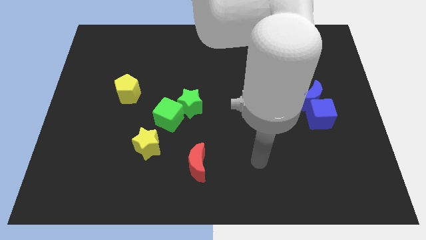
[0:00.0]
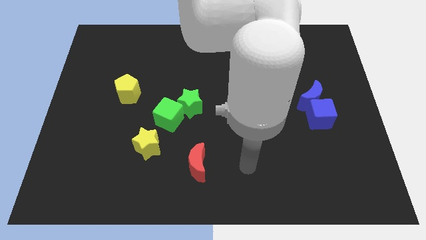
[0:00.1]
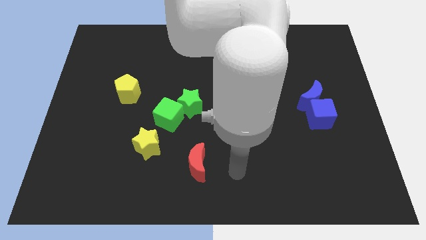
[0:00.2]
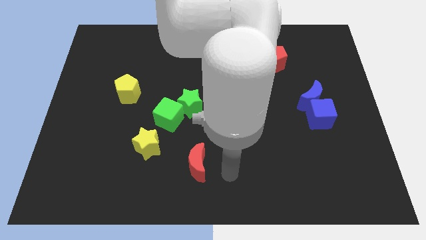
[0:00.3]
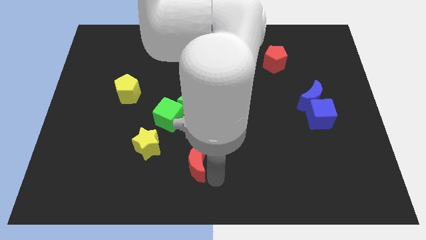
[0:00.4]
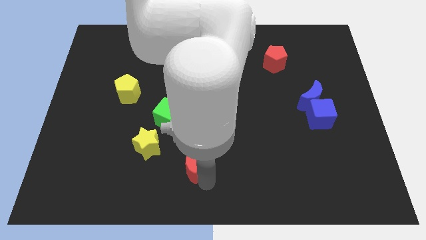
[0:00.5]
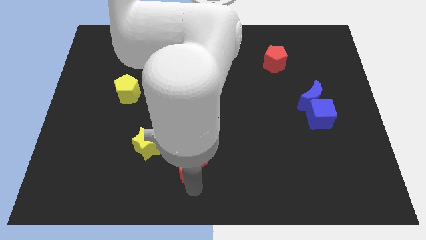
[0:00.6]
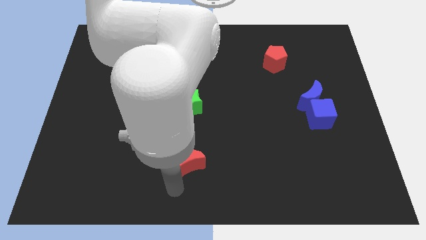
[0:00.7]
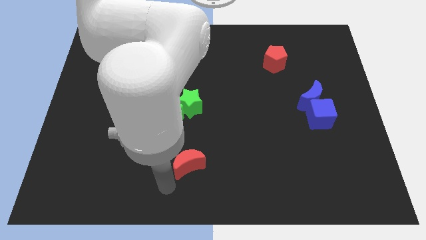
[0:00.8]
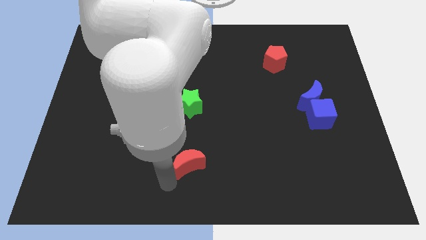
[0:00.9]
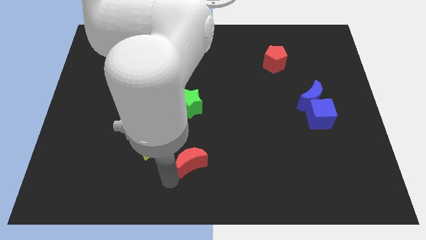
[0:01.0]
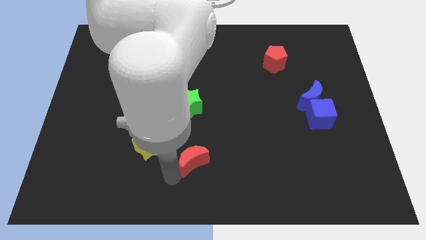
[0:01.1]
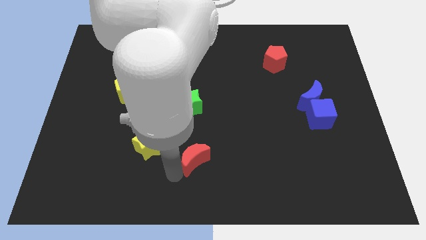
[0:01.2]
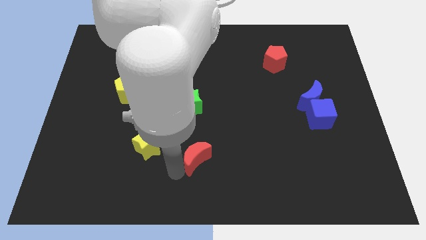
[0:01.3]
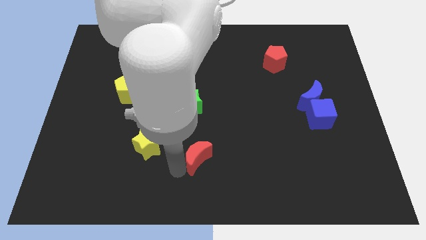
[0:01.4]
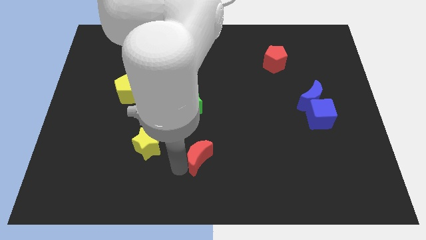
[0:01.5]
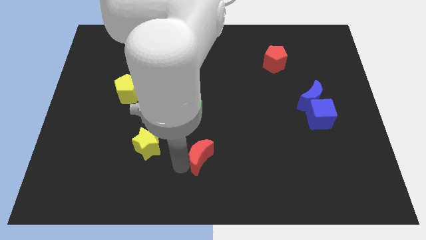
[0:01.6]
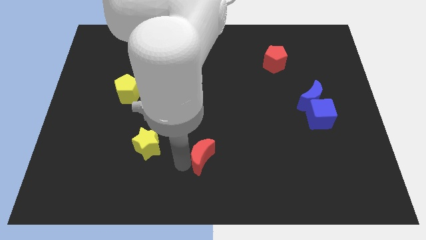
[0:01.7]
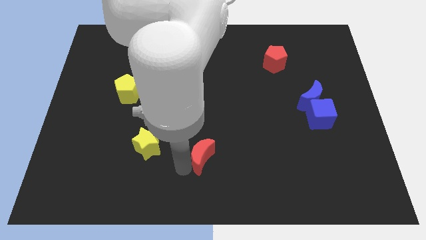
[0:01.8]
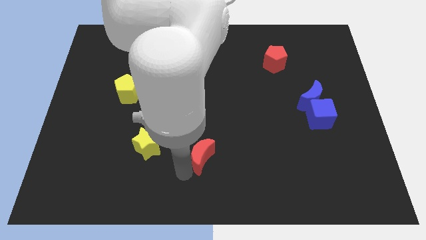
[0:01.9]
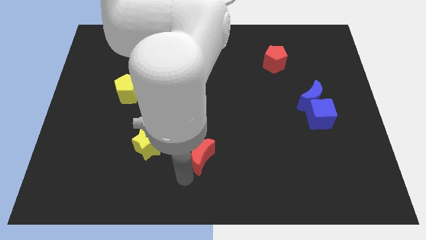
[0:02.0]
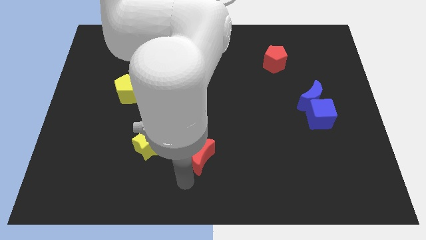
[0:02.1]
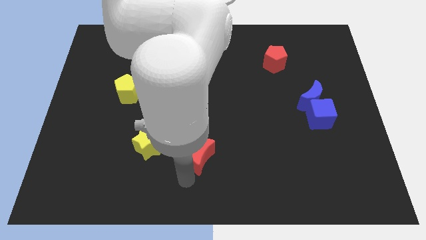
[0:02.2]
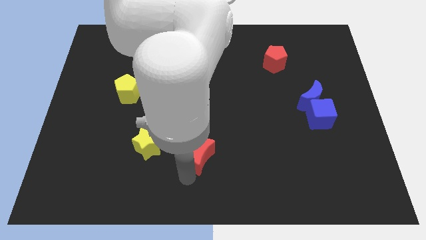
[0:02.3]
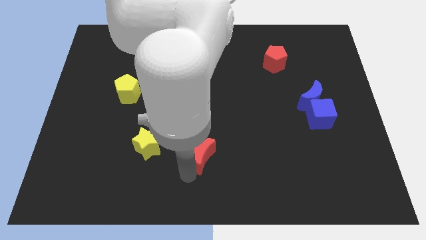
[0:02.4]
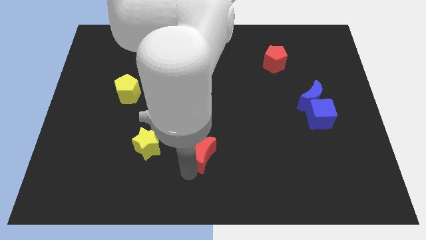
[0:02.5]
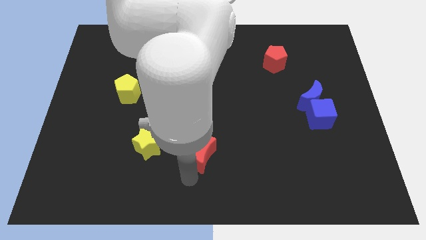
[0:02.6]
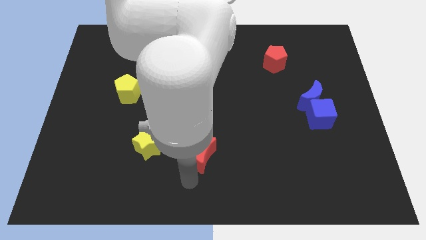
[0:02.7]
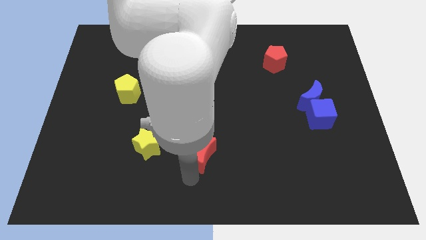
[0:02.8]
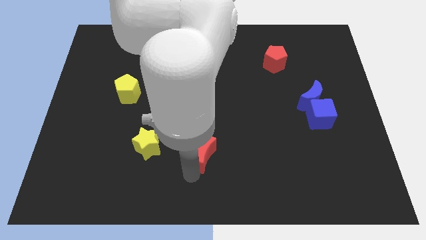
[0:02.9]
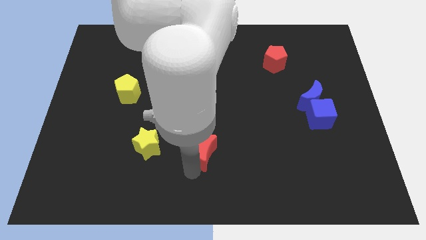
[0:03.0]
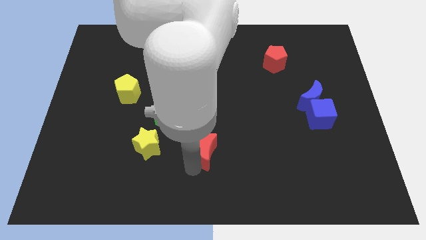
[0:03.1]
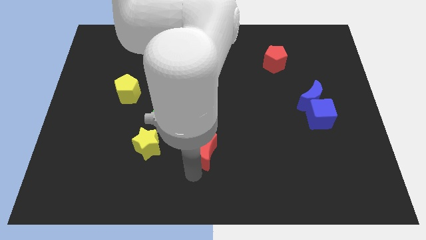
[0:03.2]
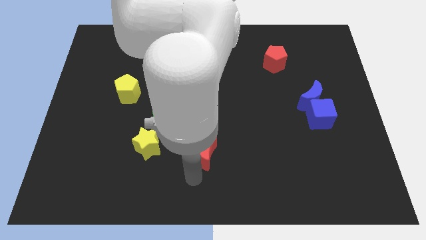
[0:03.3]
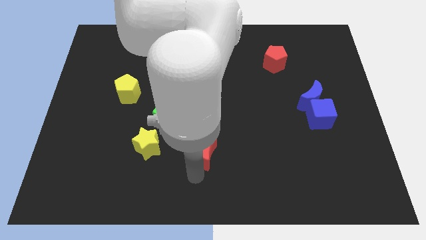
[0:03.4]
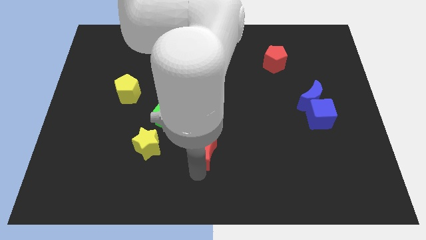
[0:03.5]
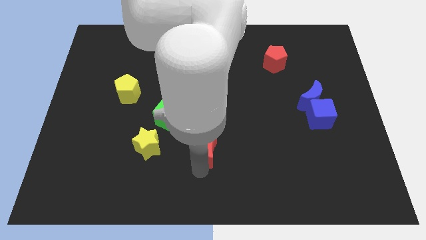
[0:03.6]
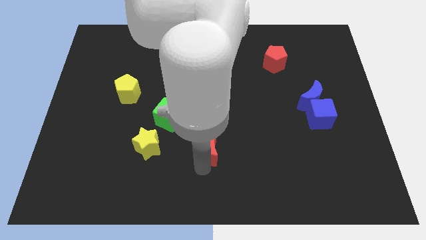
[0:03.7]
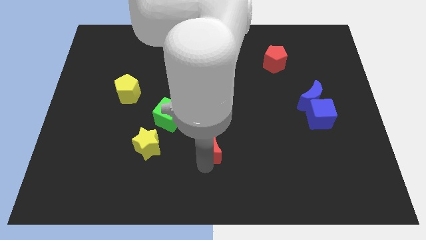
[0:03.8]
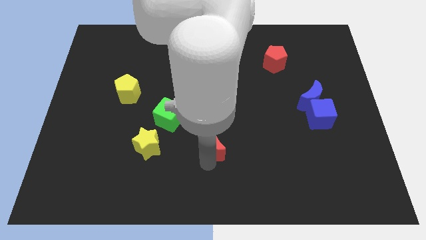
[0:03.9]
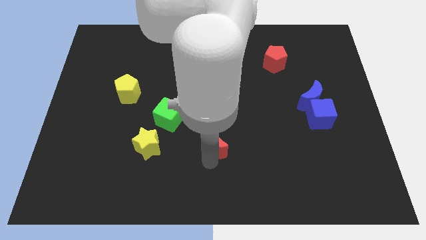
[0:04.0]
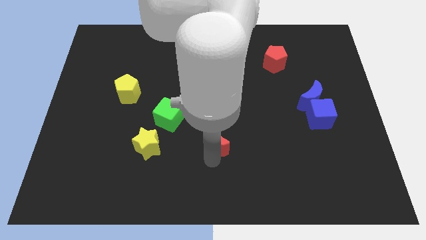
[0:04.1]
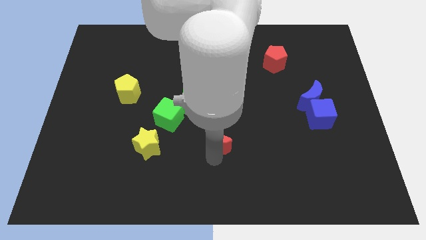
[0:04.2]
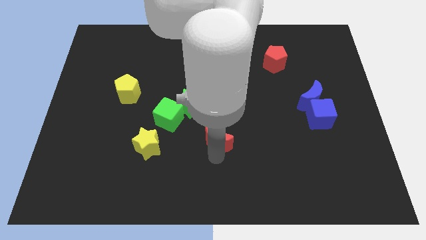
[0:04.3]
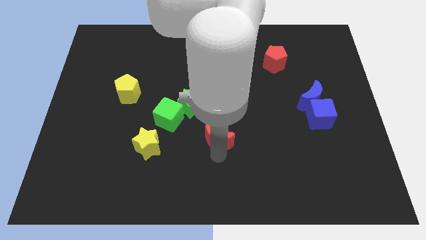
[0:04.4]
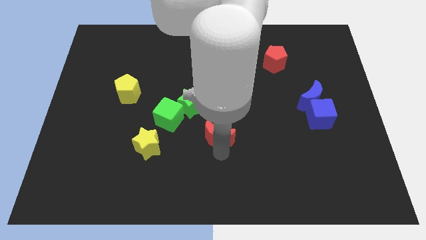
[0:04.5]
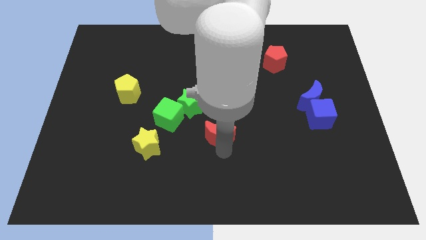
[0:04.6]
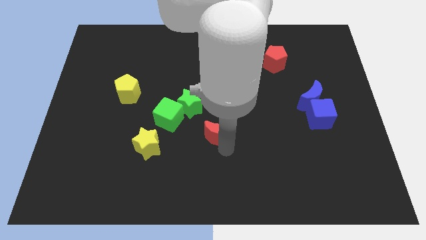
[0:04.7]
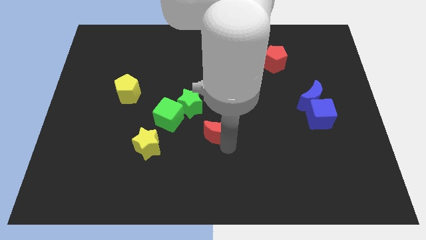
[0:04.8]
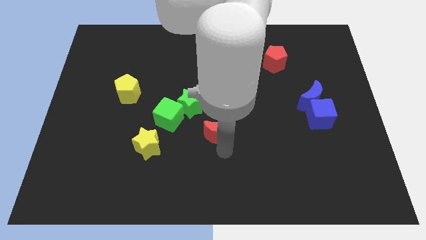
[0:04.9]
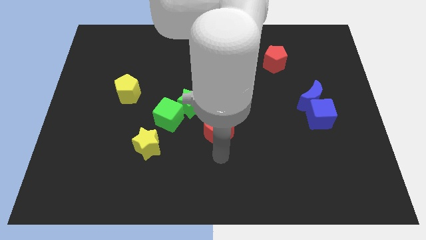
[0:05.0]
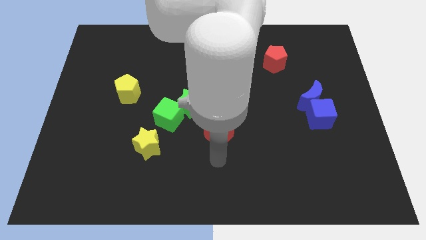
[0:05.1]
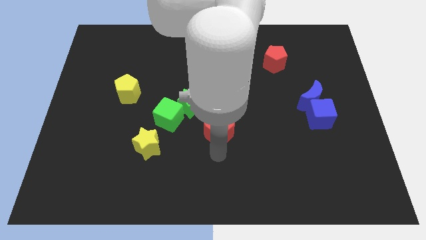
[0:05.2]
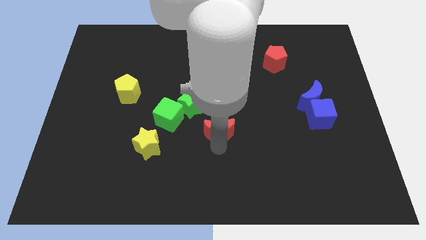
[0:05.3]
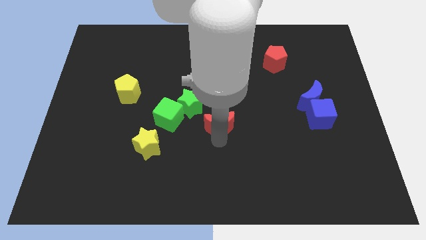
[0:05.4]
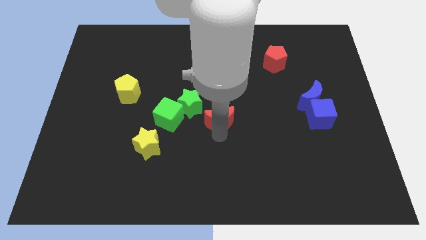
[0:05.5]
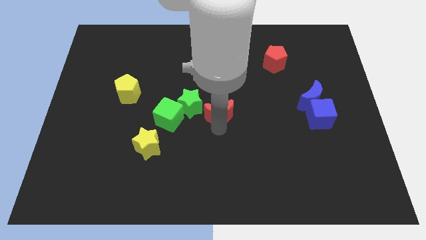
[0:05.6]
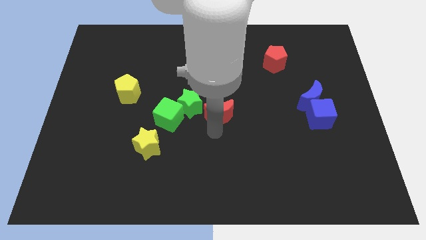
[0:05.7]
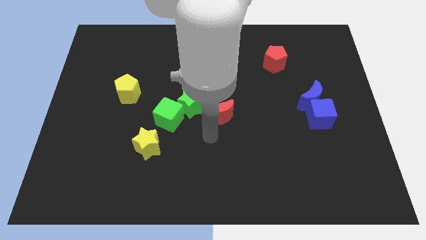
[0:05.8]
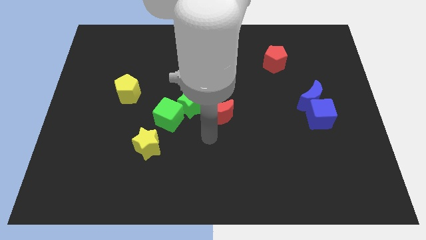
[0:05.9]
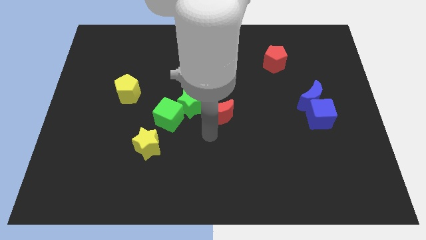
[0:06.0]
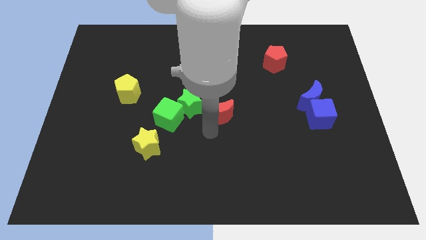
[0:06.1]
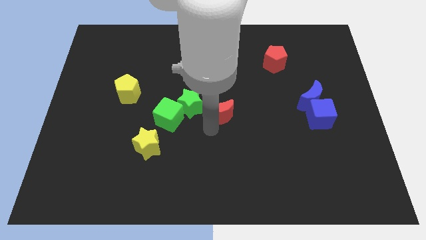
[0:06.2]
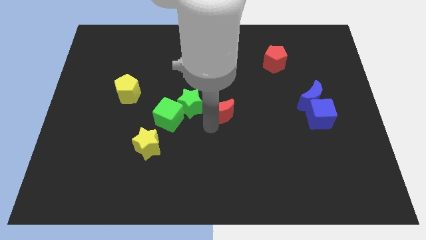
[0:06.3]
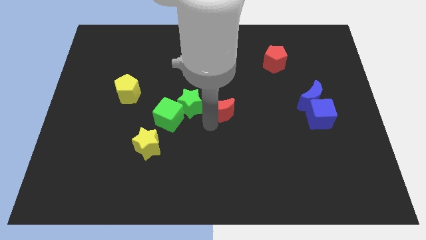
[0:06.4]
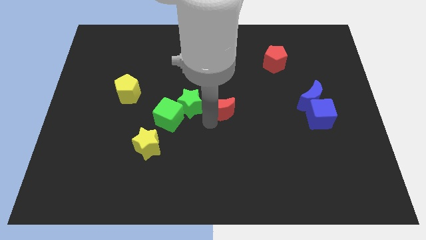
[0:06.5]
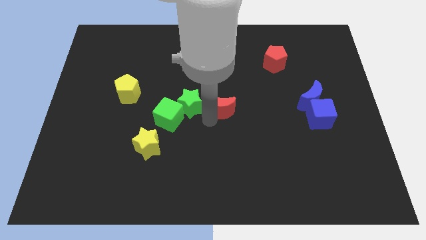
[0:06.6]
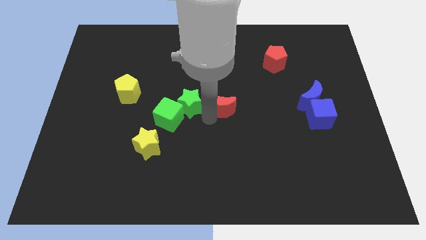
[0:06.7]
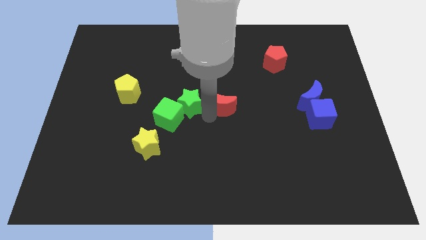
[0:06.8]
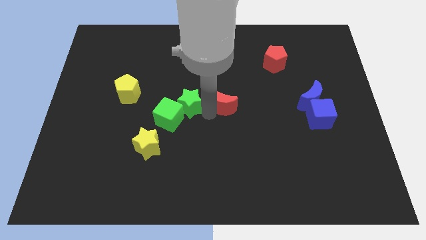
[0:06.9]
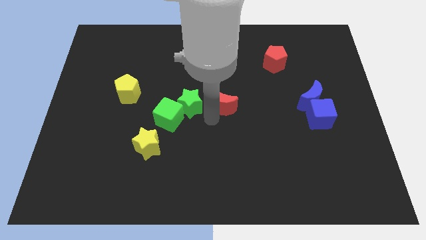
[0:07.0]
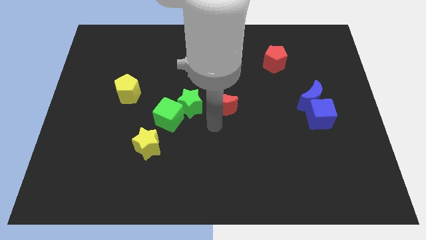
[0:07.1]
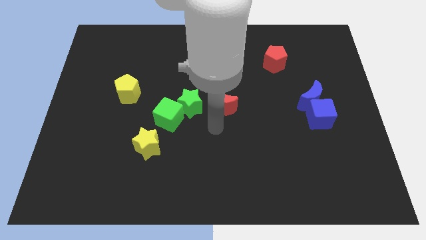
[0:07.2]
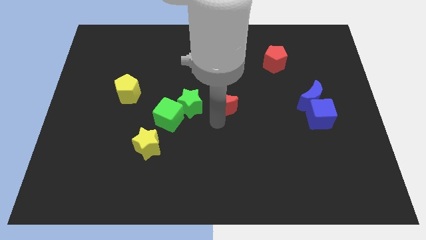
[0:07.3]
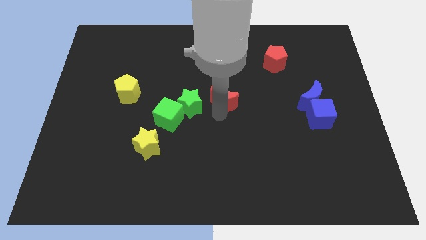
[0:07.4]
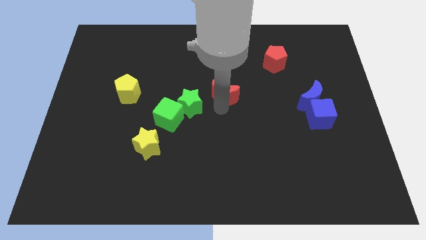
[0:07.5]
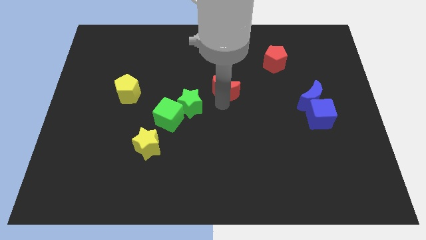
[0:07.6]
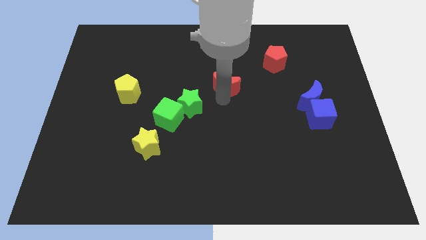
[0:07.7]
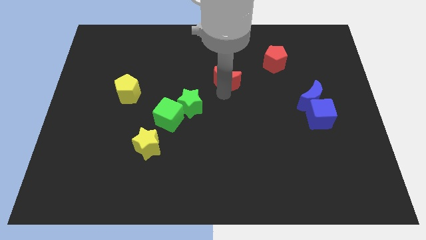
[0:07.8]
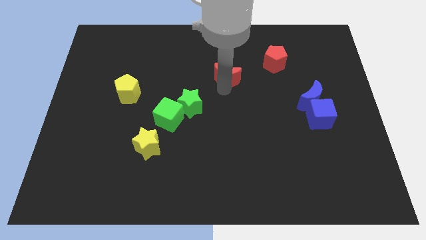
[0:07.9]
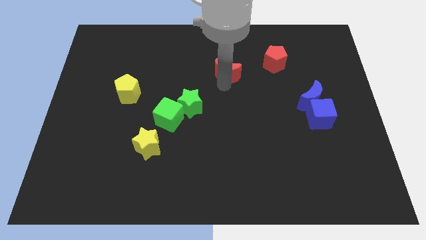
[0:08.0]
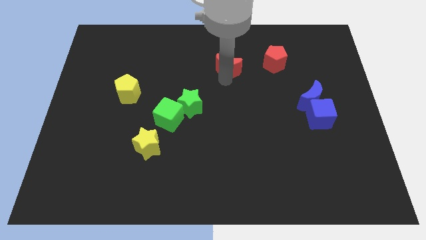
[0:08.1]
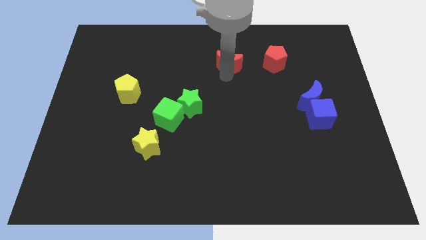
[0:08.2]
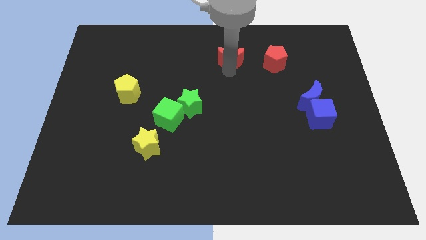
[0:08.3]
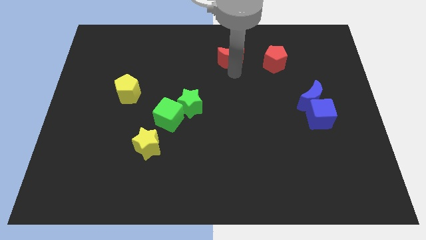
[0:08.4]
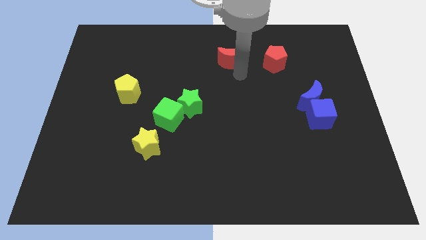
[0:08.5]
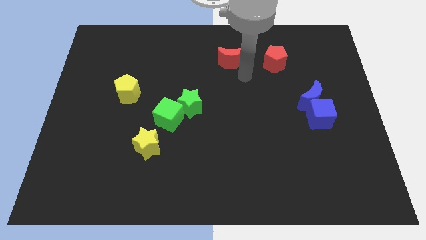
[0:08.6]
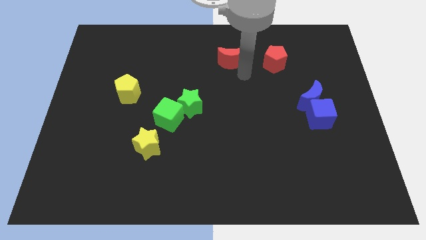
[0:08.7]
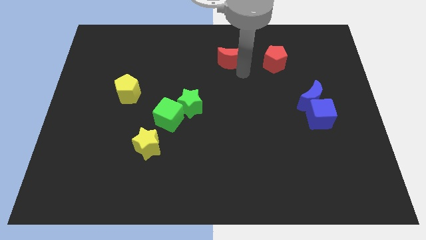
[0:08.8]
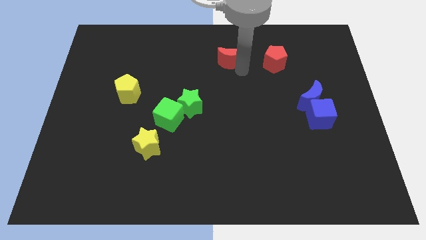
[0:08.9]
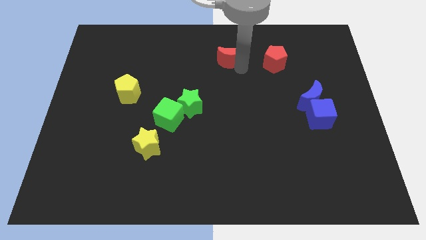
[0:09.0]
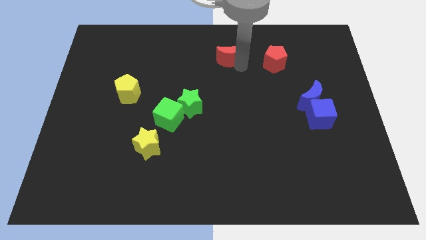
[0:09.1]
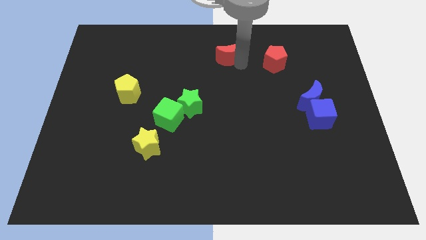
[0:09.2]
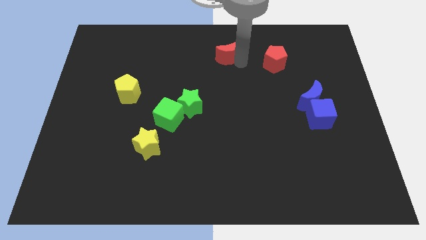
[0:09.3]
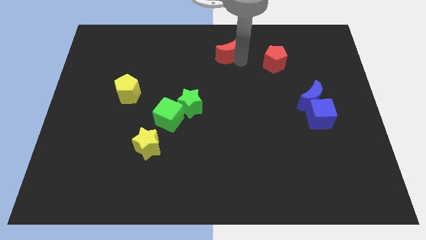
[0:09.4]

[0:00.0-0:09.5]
put the red moon to the top side
